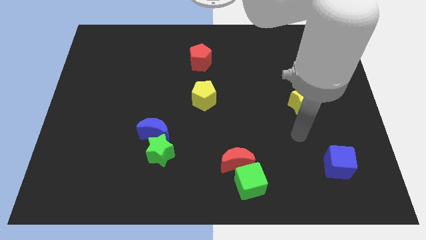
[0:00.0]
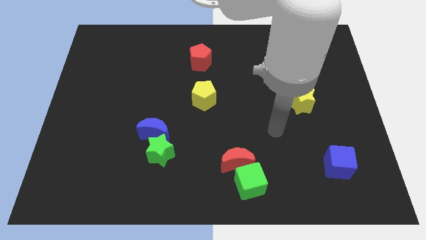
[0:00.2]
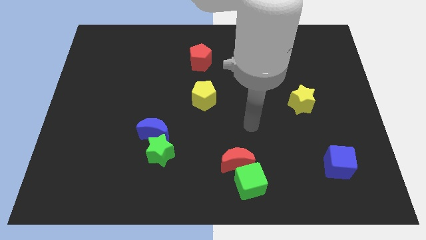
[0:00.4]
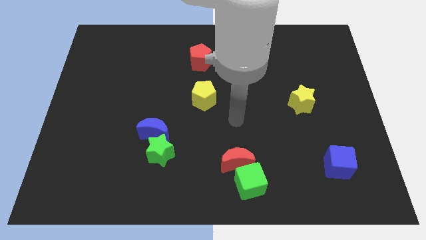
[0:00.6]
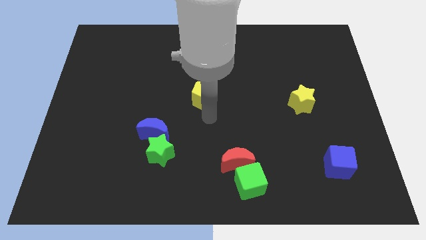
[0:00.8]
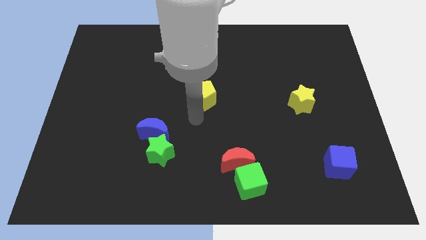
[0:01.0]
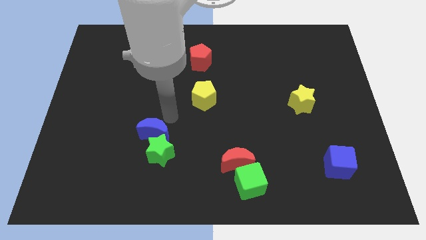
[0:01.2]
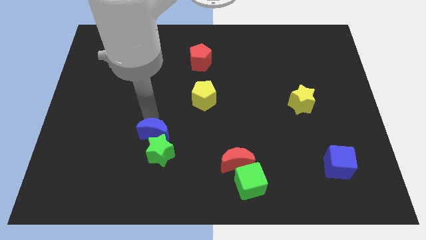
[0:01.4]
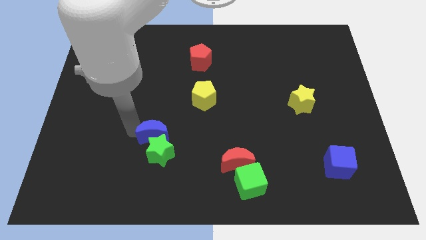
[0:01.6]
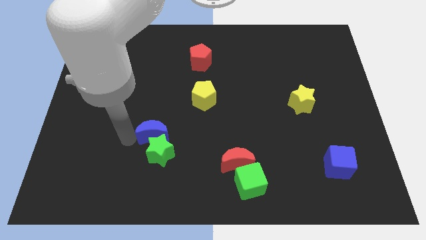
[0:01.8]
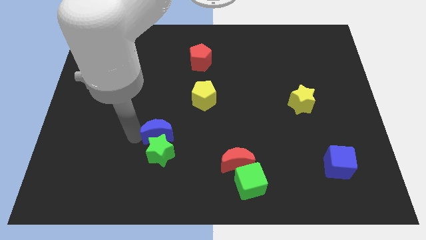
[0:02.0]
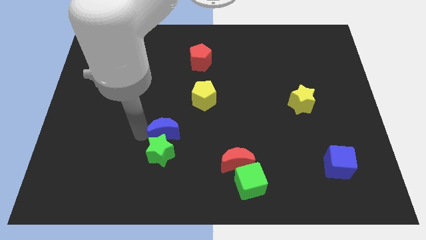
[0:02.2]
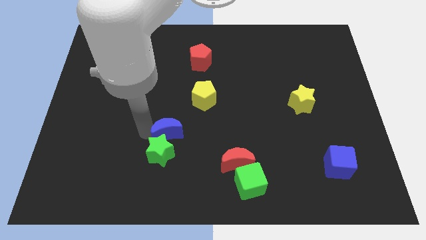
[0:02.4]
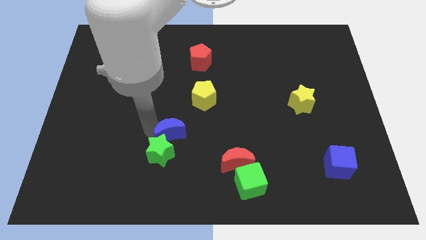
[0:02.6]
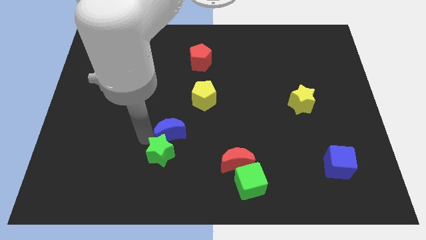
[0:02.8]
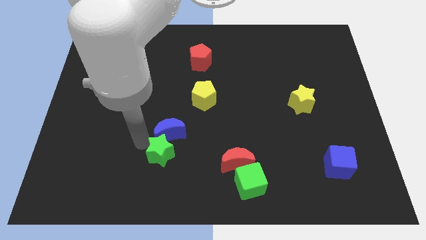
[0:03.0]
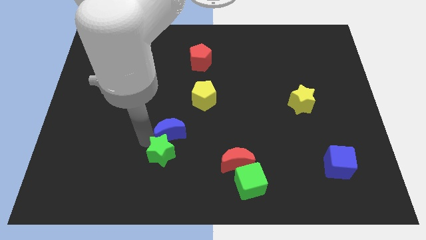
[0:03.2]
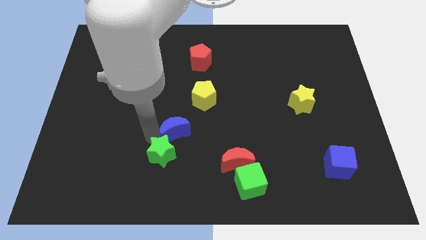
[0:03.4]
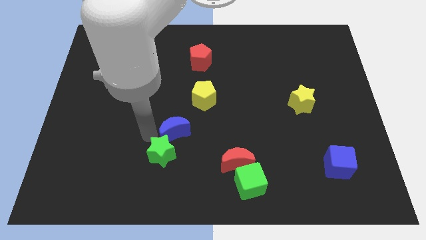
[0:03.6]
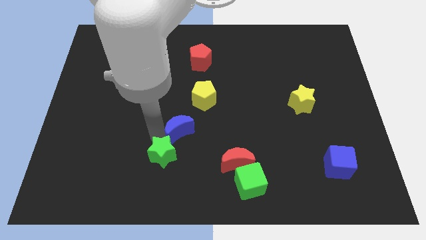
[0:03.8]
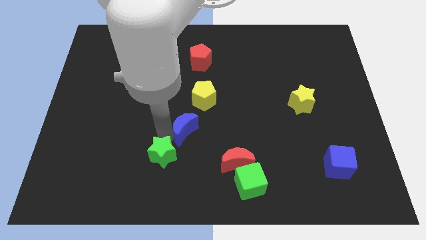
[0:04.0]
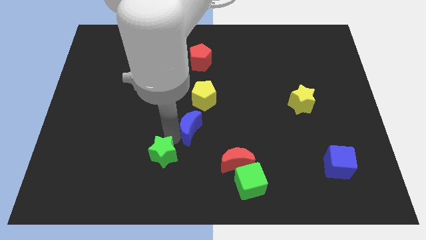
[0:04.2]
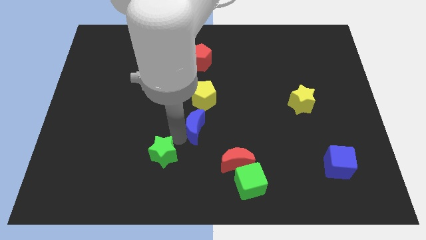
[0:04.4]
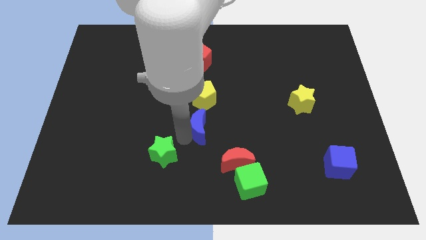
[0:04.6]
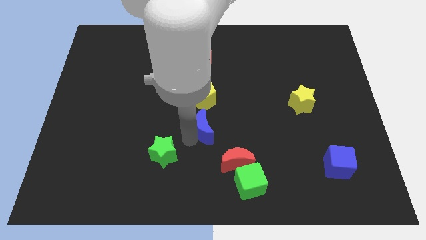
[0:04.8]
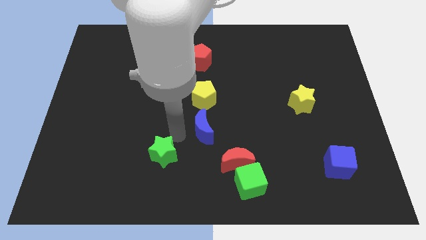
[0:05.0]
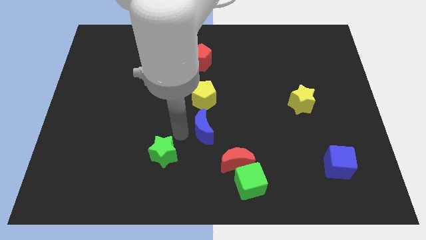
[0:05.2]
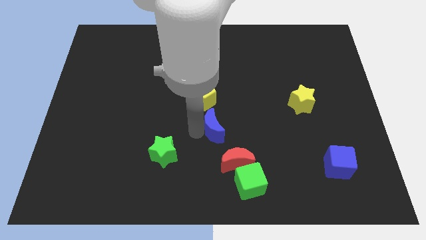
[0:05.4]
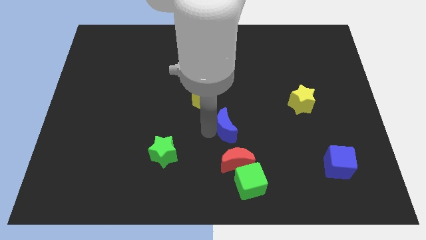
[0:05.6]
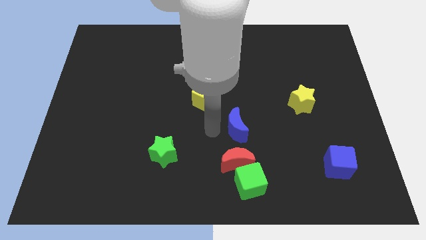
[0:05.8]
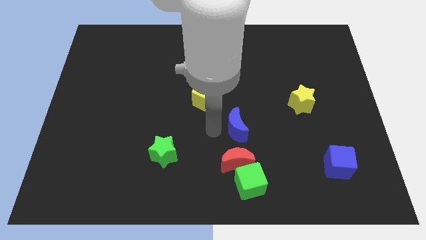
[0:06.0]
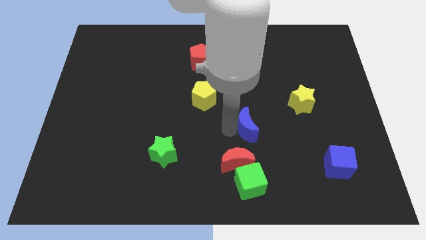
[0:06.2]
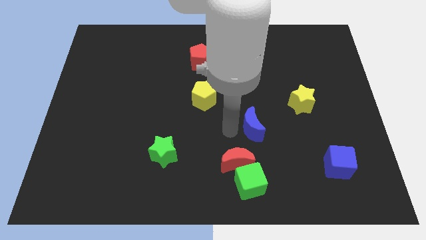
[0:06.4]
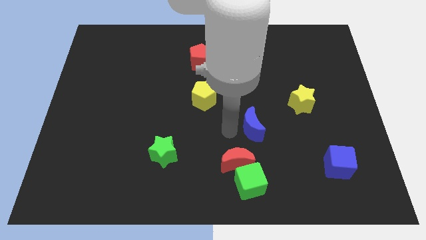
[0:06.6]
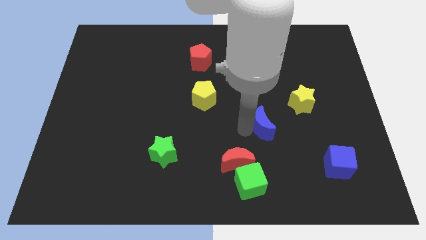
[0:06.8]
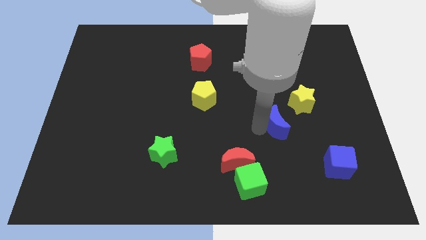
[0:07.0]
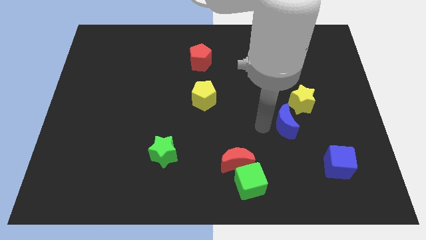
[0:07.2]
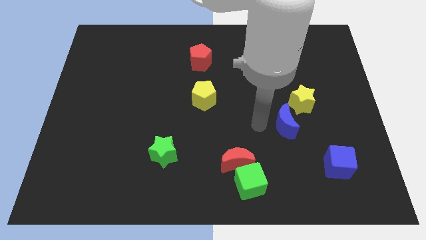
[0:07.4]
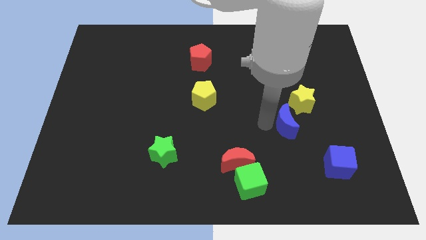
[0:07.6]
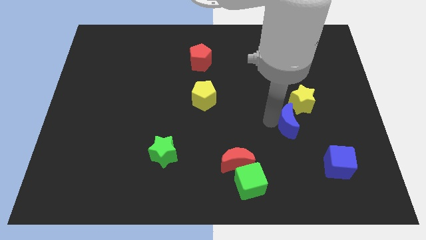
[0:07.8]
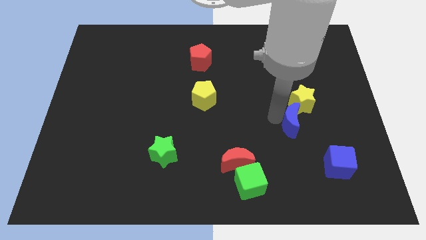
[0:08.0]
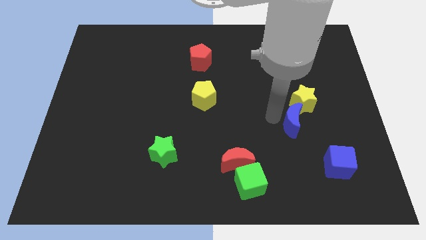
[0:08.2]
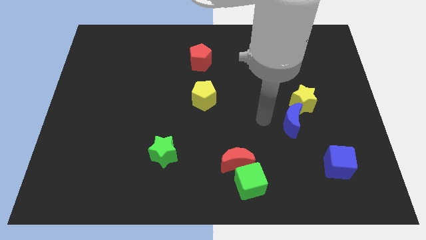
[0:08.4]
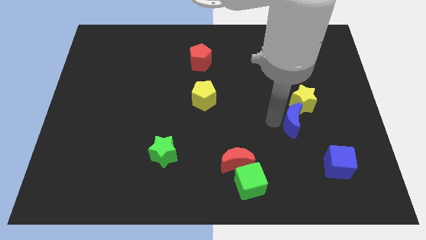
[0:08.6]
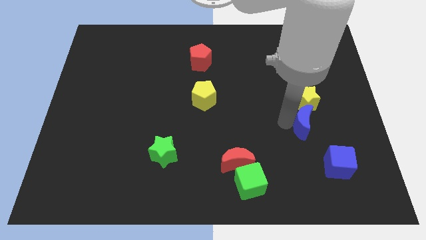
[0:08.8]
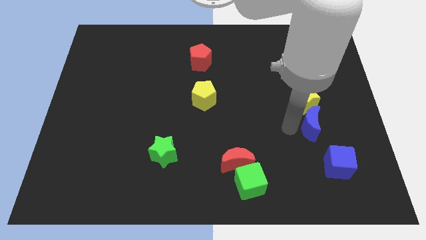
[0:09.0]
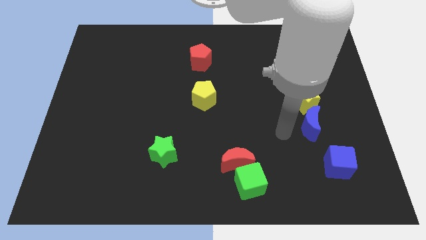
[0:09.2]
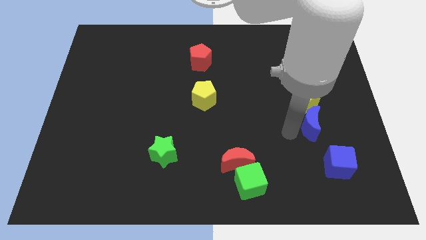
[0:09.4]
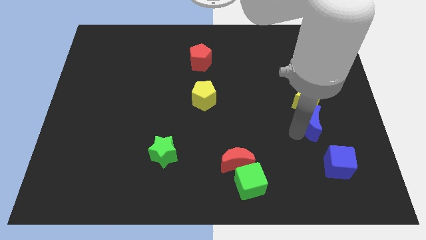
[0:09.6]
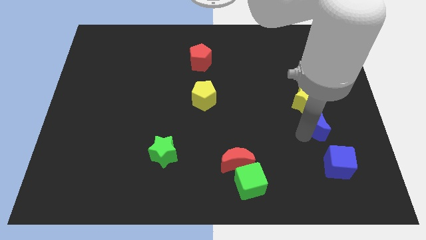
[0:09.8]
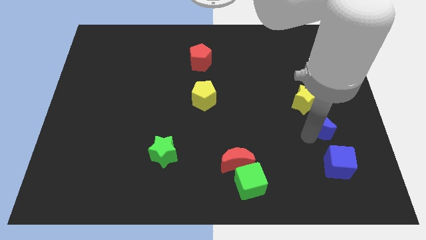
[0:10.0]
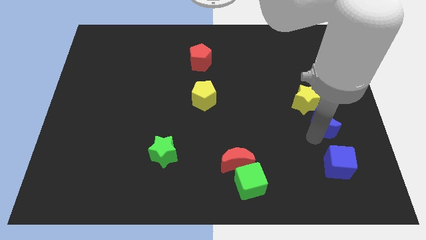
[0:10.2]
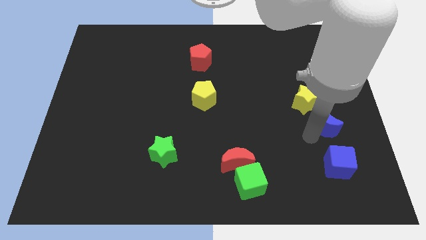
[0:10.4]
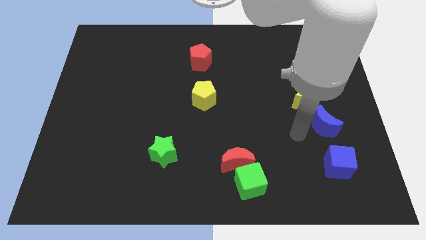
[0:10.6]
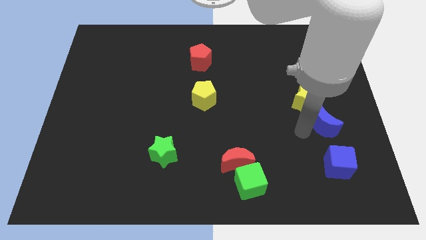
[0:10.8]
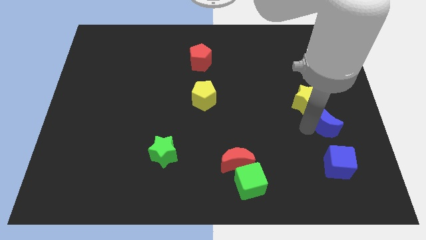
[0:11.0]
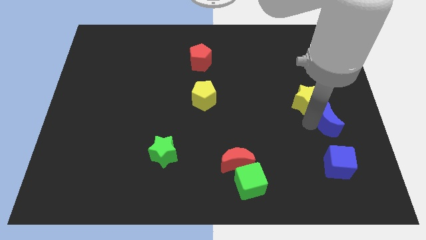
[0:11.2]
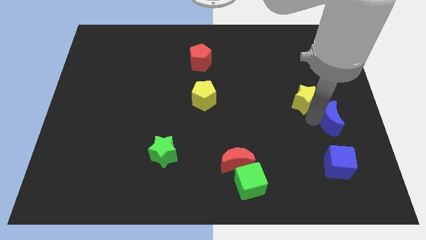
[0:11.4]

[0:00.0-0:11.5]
slide the blue moon to the right side

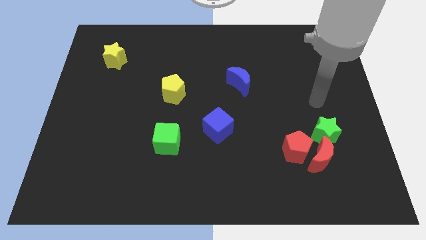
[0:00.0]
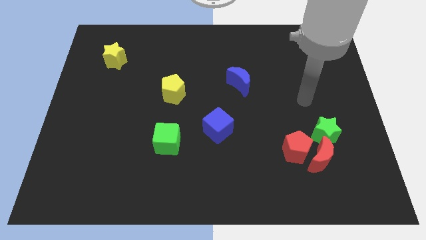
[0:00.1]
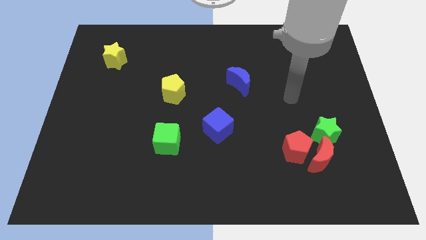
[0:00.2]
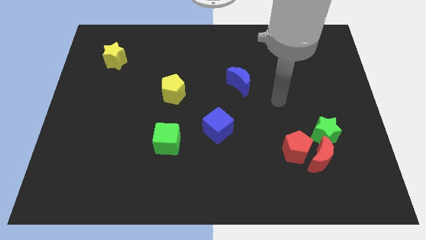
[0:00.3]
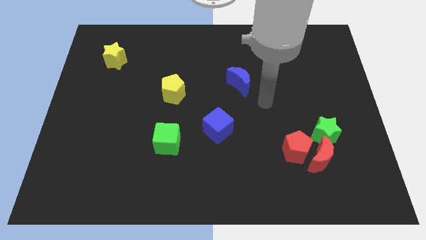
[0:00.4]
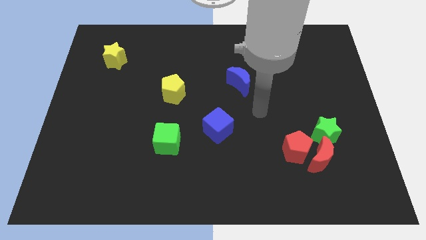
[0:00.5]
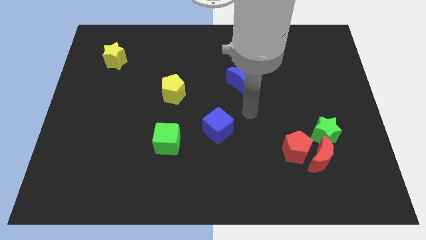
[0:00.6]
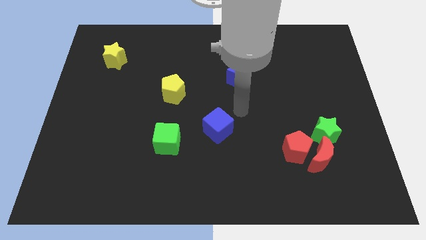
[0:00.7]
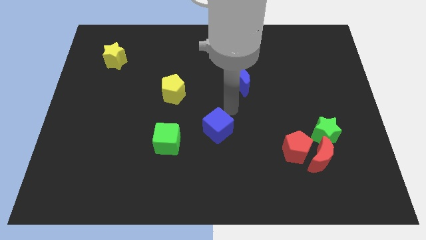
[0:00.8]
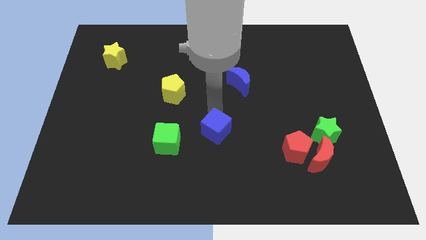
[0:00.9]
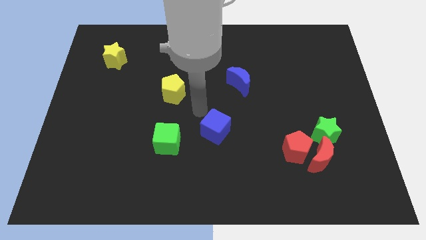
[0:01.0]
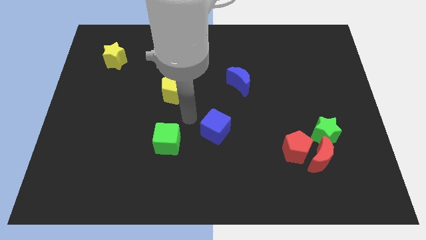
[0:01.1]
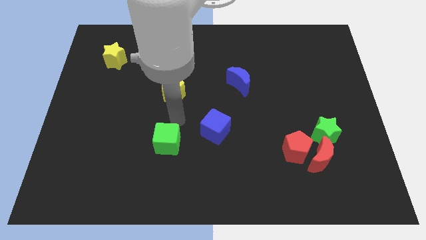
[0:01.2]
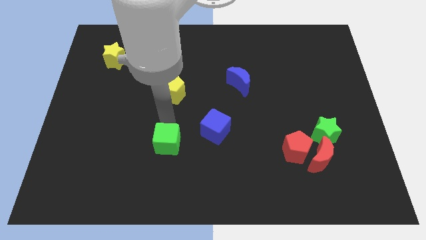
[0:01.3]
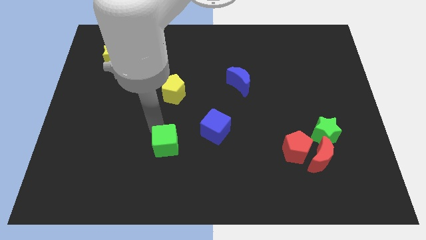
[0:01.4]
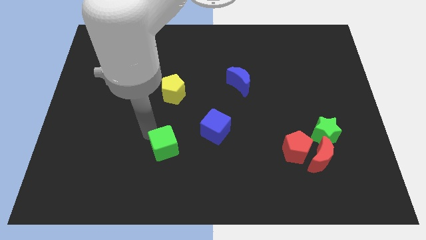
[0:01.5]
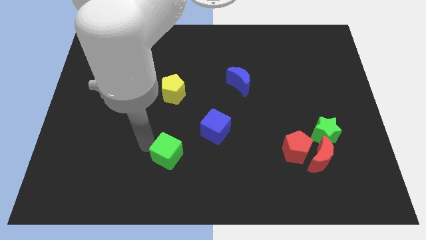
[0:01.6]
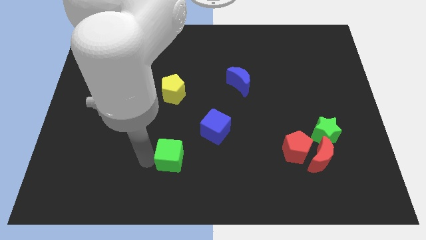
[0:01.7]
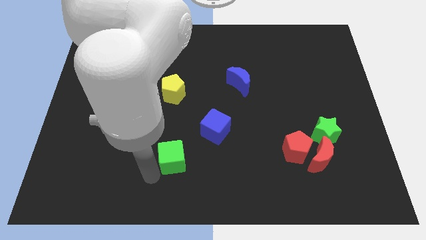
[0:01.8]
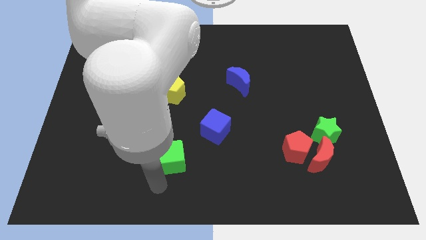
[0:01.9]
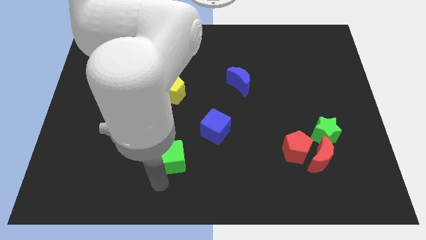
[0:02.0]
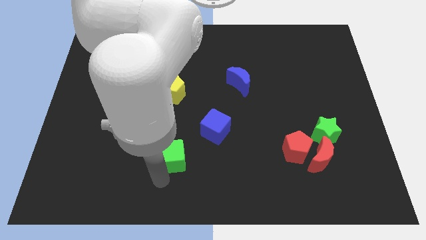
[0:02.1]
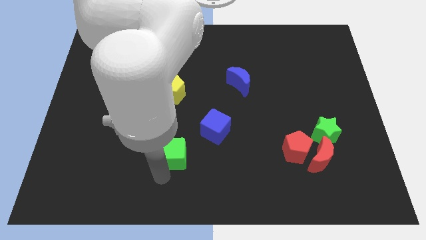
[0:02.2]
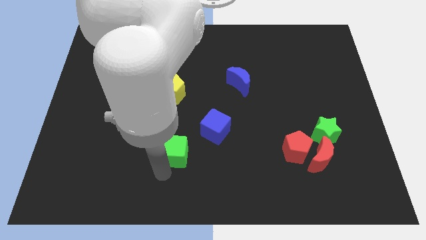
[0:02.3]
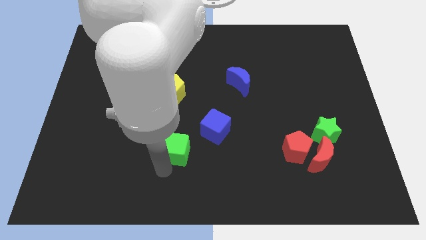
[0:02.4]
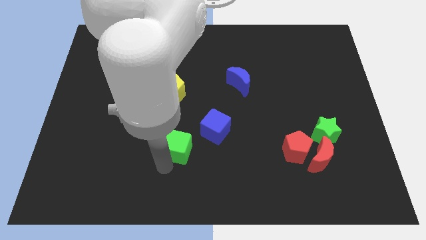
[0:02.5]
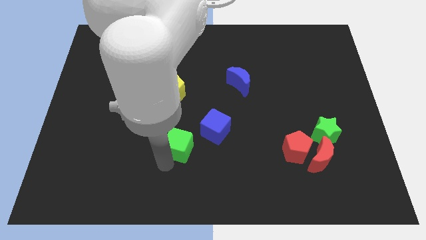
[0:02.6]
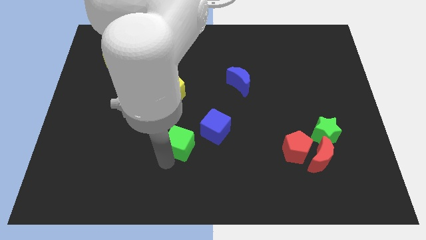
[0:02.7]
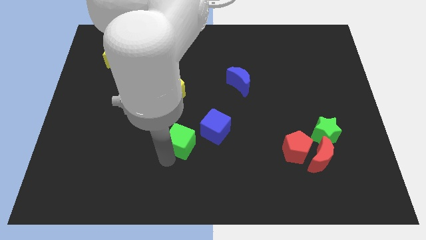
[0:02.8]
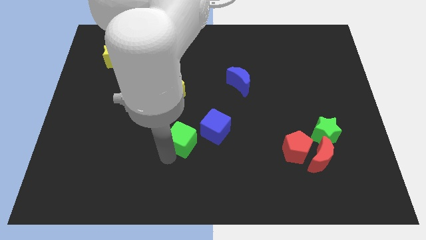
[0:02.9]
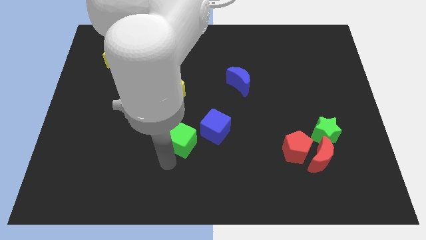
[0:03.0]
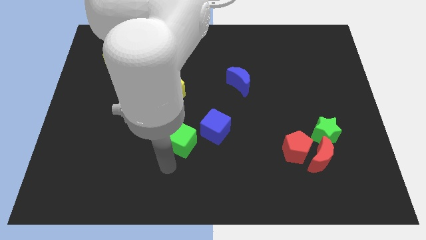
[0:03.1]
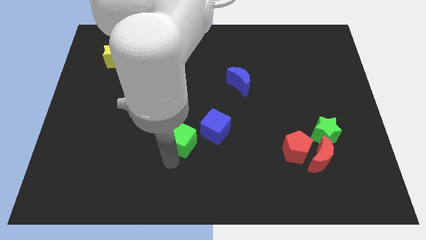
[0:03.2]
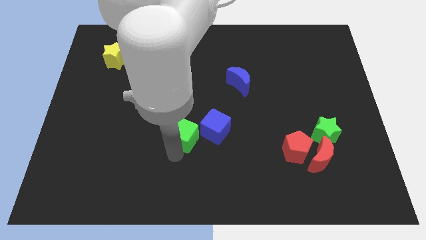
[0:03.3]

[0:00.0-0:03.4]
slide the green cube to the middle
